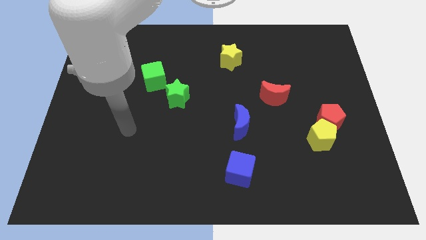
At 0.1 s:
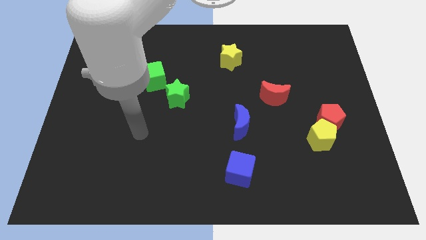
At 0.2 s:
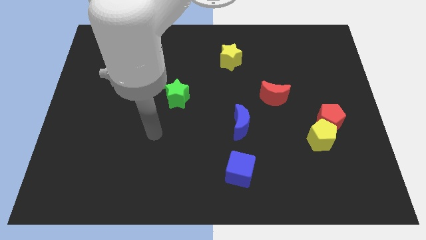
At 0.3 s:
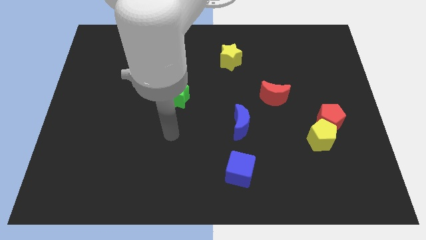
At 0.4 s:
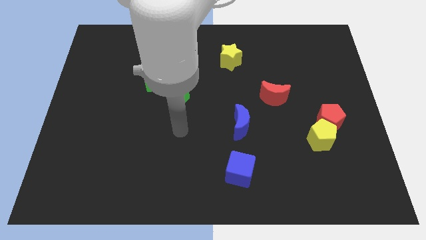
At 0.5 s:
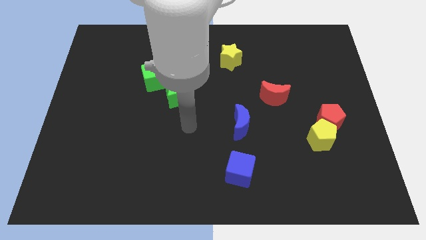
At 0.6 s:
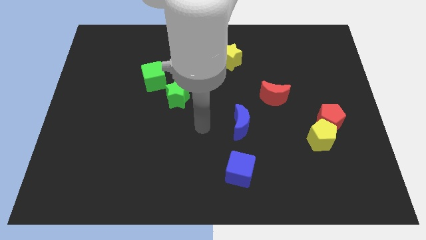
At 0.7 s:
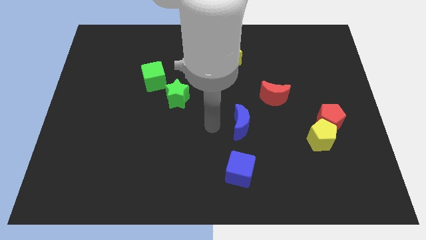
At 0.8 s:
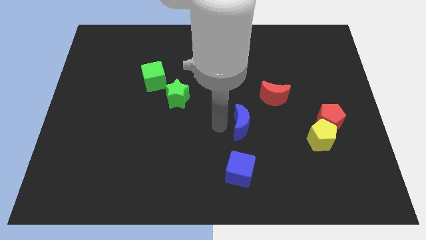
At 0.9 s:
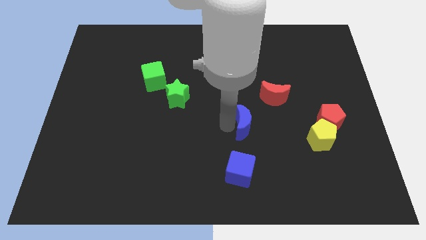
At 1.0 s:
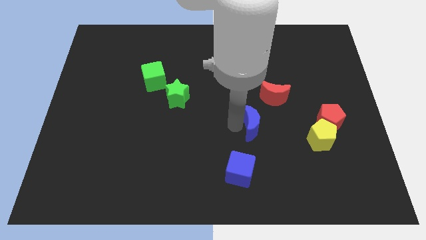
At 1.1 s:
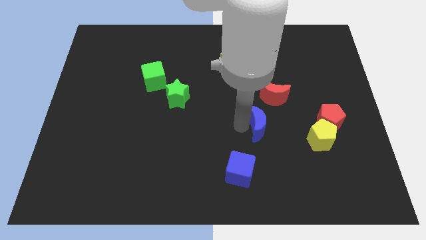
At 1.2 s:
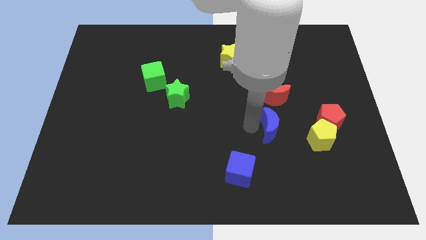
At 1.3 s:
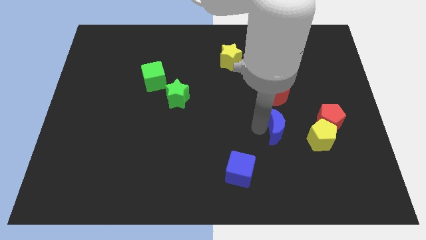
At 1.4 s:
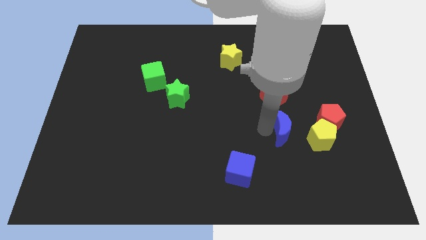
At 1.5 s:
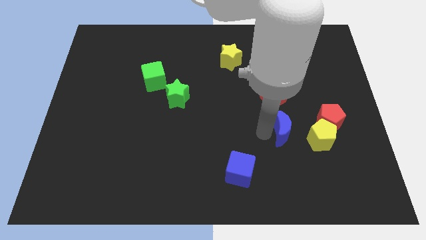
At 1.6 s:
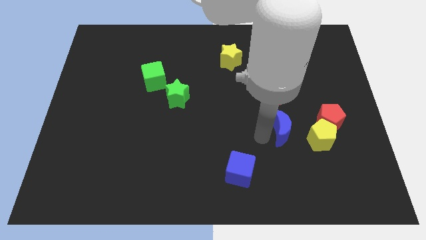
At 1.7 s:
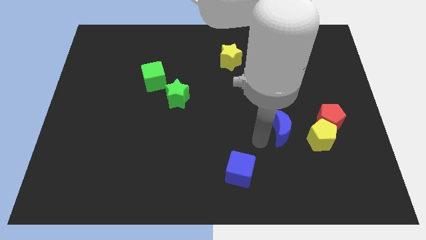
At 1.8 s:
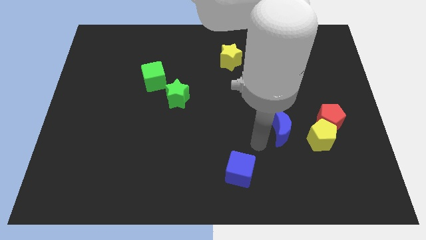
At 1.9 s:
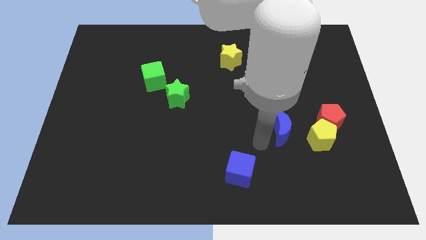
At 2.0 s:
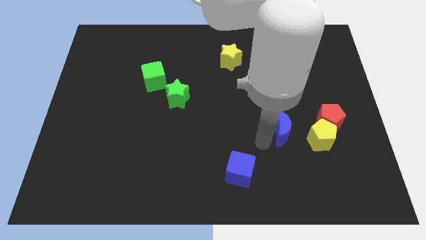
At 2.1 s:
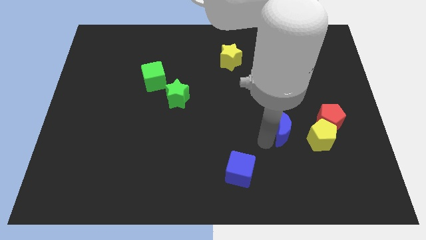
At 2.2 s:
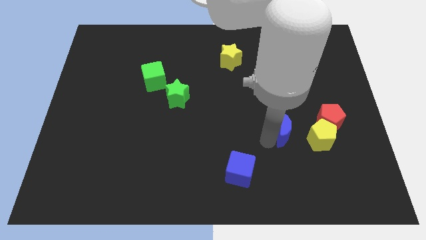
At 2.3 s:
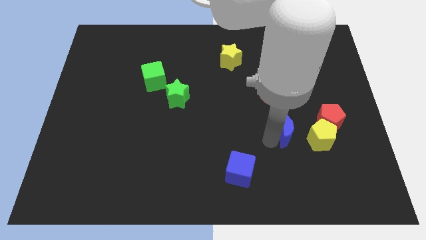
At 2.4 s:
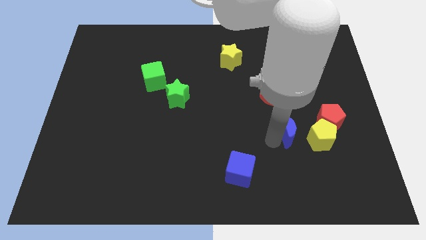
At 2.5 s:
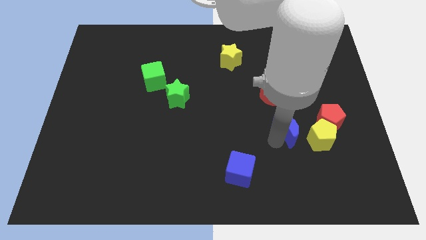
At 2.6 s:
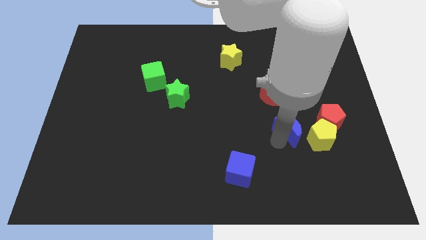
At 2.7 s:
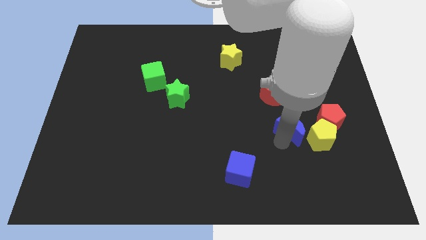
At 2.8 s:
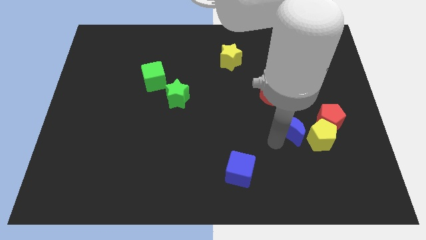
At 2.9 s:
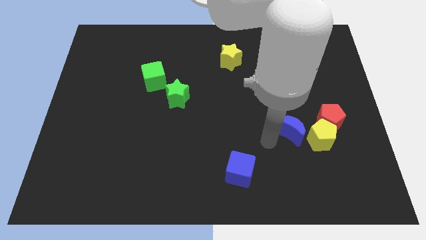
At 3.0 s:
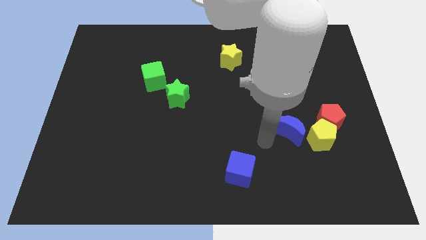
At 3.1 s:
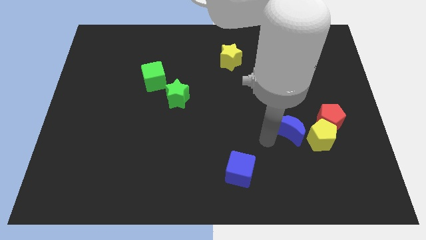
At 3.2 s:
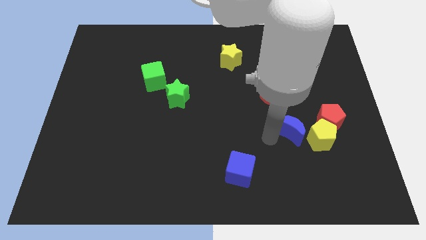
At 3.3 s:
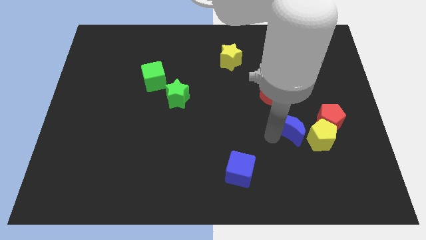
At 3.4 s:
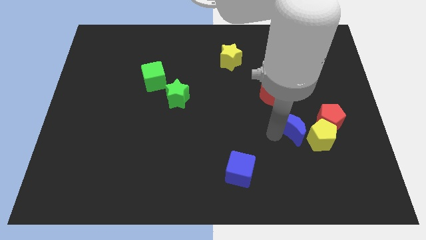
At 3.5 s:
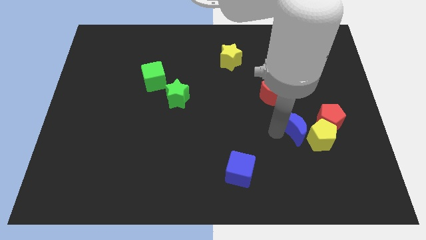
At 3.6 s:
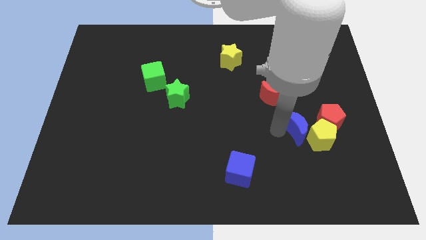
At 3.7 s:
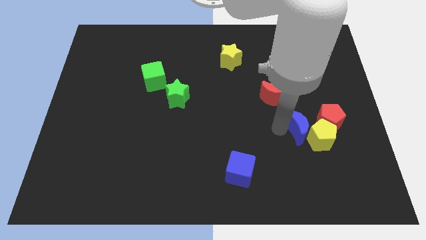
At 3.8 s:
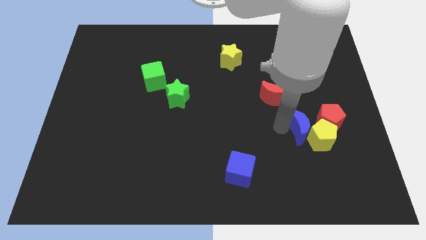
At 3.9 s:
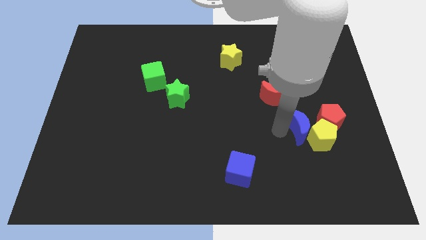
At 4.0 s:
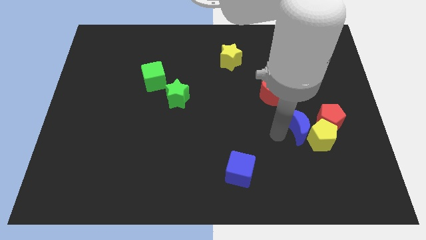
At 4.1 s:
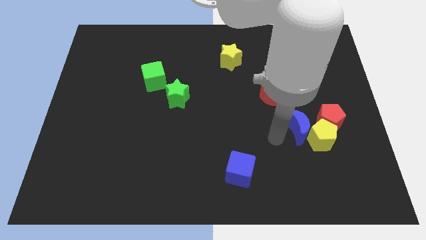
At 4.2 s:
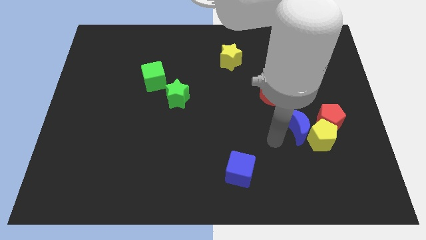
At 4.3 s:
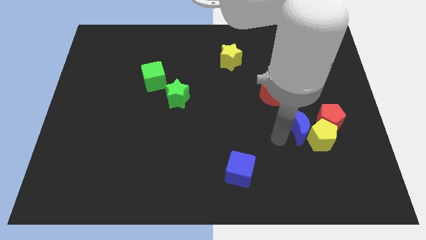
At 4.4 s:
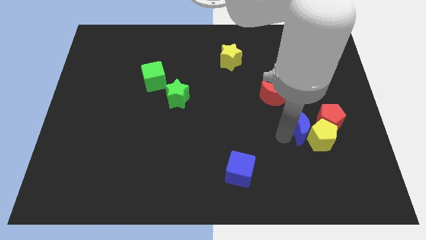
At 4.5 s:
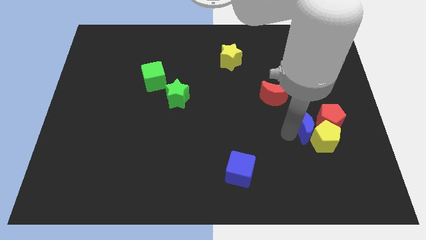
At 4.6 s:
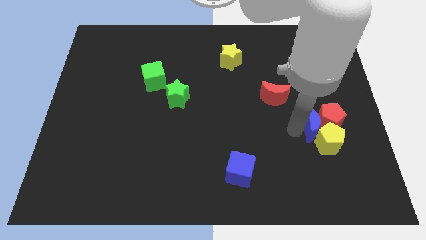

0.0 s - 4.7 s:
move the blue moon next to the red pentagon

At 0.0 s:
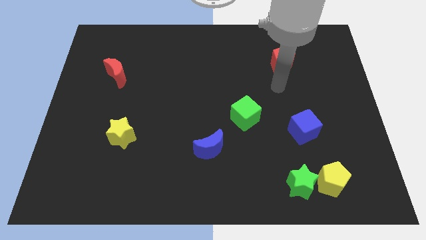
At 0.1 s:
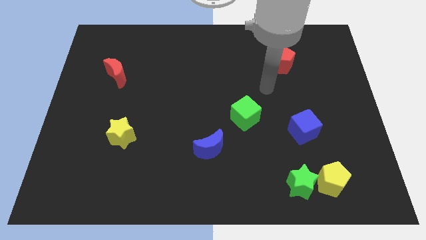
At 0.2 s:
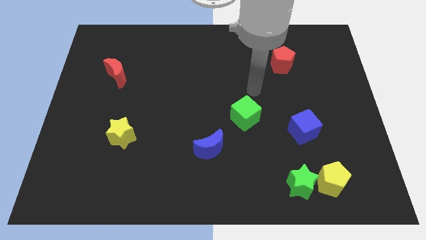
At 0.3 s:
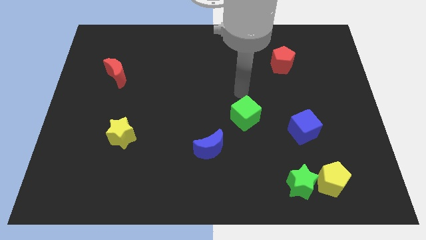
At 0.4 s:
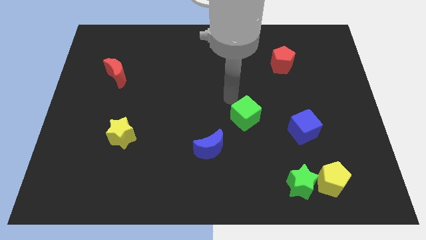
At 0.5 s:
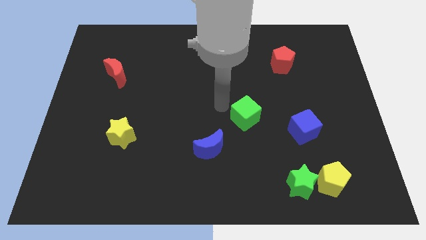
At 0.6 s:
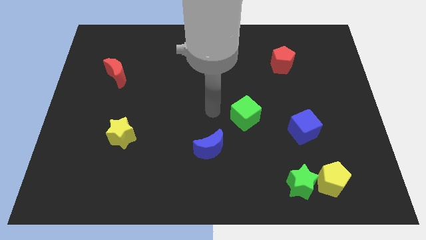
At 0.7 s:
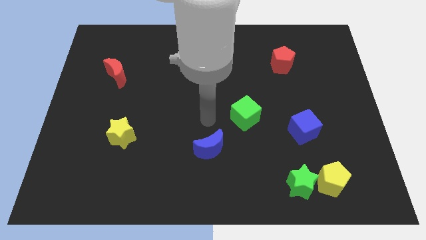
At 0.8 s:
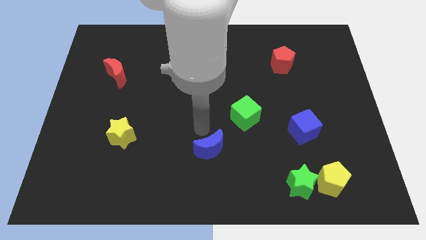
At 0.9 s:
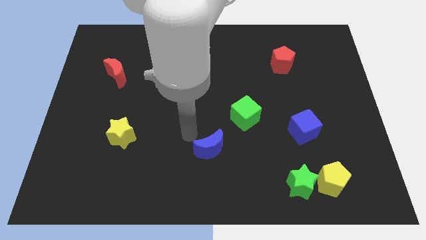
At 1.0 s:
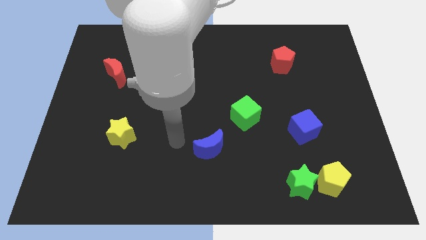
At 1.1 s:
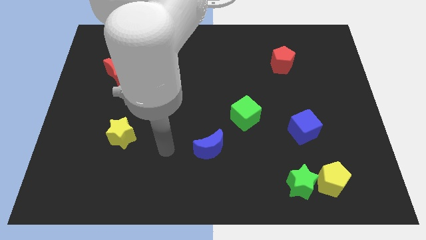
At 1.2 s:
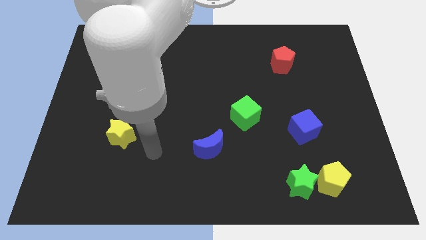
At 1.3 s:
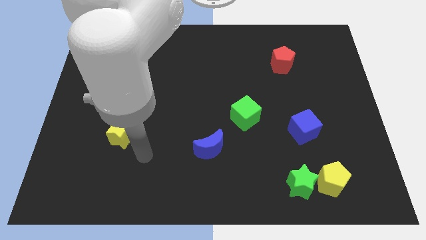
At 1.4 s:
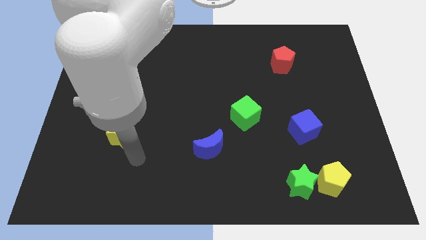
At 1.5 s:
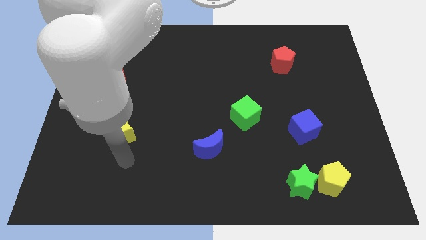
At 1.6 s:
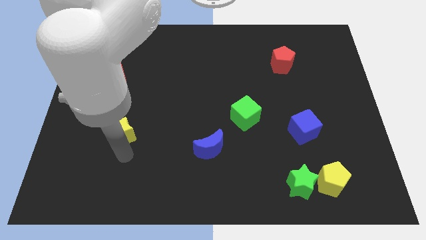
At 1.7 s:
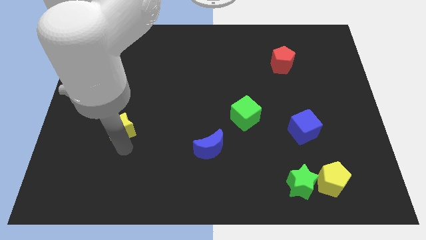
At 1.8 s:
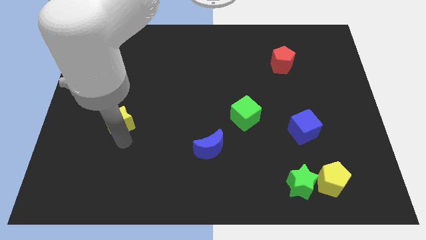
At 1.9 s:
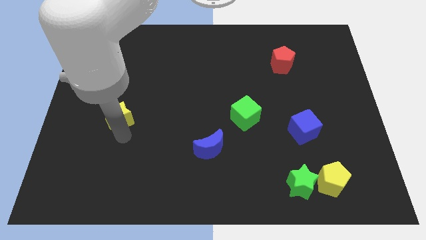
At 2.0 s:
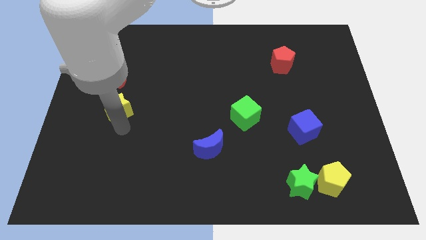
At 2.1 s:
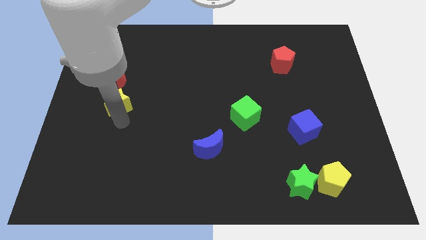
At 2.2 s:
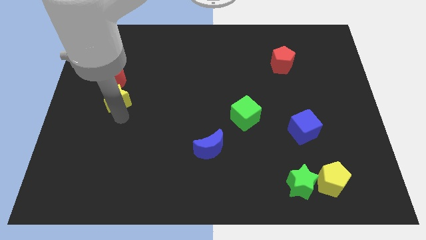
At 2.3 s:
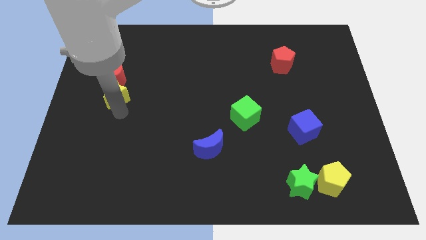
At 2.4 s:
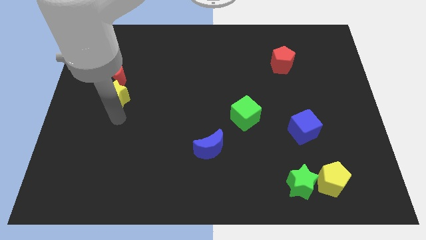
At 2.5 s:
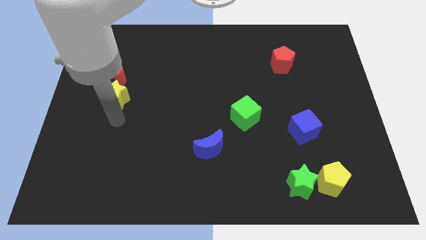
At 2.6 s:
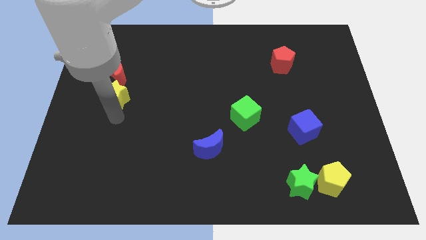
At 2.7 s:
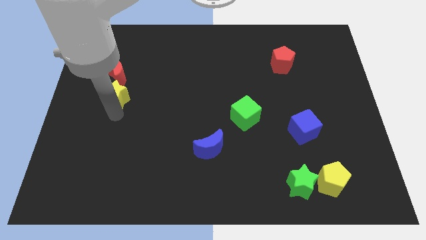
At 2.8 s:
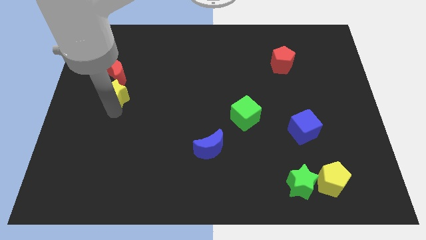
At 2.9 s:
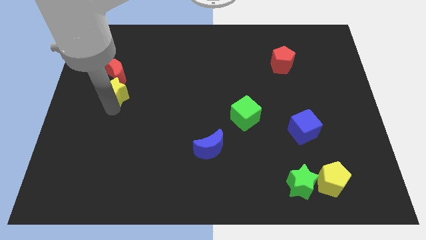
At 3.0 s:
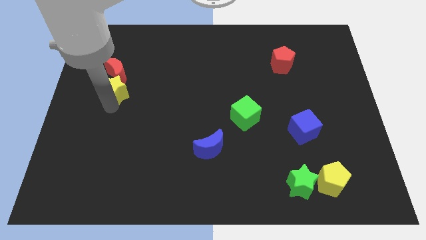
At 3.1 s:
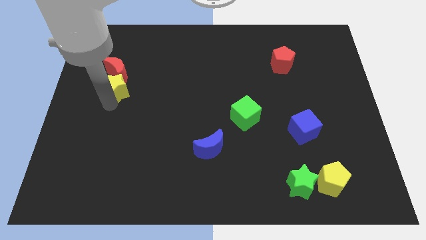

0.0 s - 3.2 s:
slide the yellow star towards the red moon

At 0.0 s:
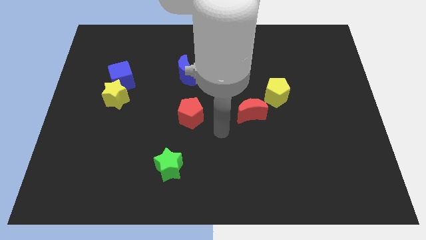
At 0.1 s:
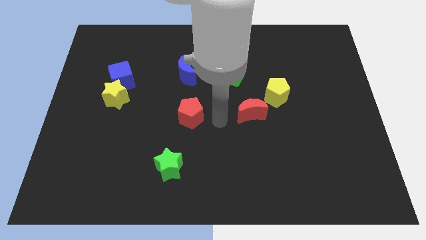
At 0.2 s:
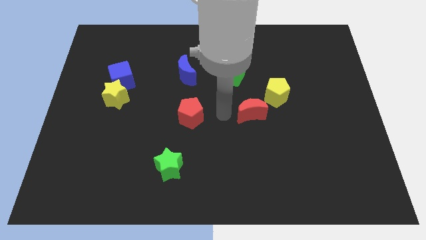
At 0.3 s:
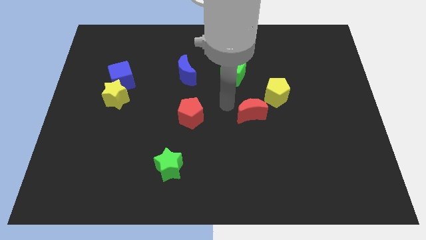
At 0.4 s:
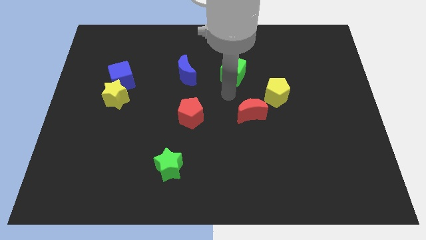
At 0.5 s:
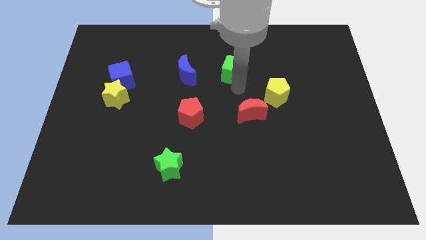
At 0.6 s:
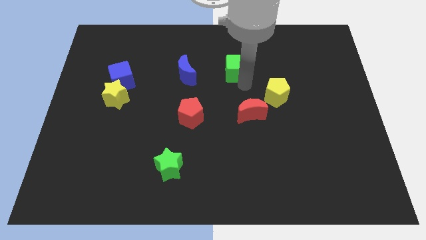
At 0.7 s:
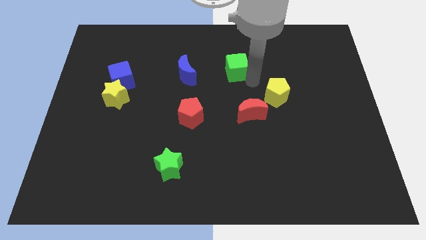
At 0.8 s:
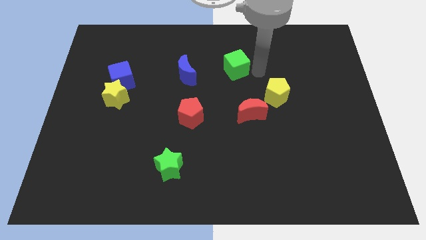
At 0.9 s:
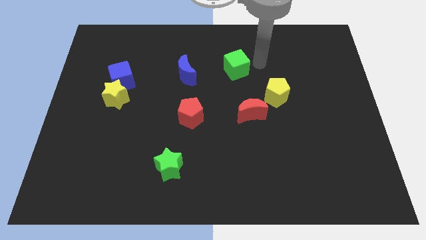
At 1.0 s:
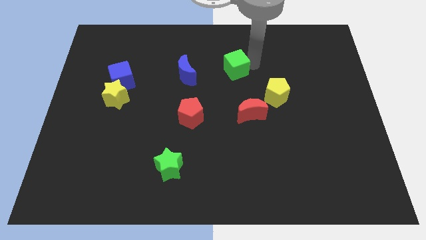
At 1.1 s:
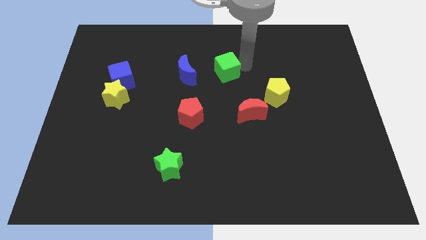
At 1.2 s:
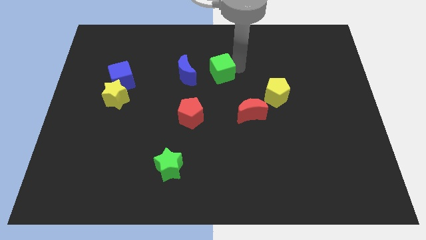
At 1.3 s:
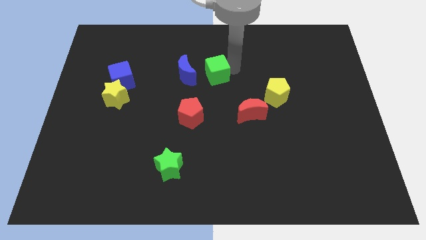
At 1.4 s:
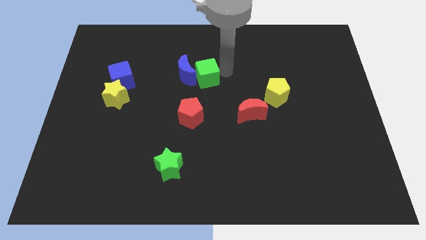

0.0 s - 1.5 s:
push the green cube towards the blue moon
